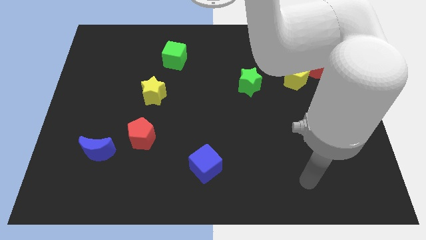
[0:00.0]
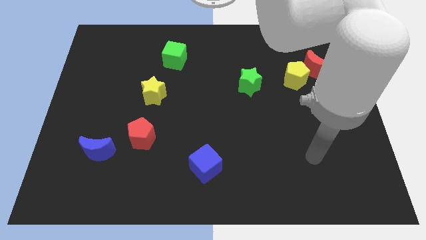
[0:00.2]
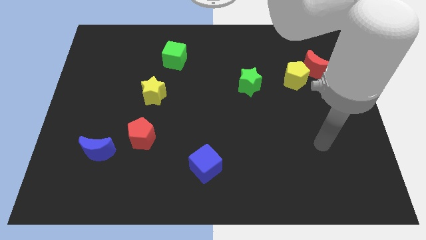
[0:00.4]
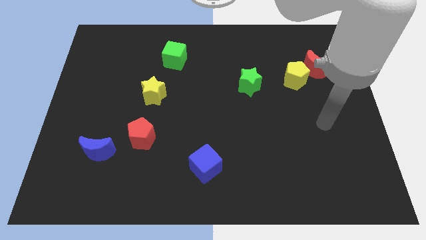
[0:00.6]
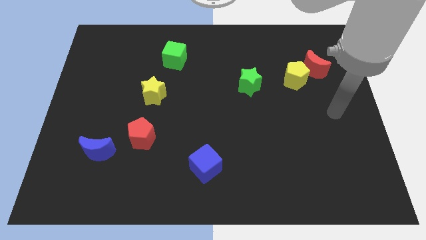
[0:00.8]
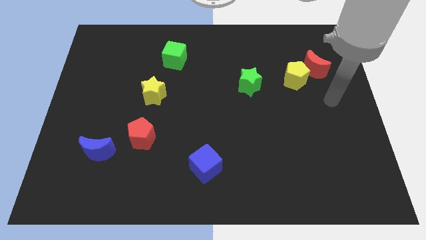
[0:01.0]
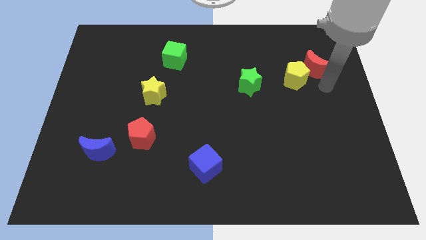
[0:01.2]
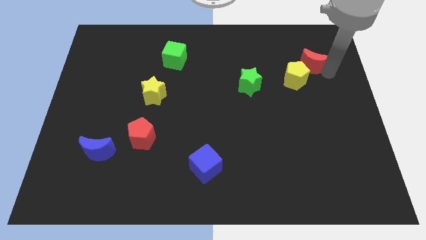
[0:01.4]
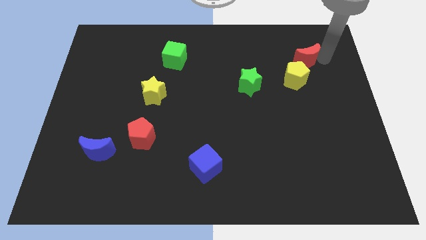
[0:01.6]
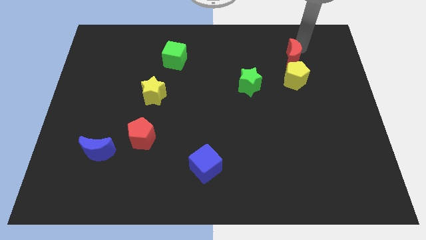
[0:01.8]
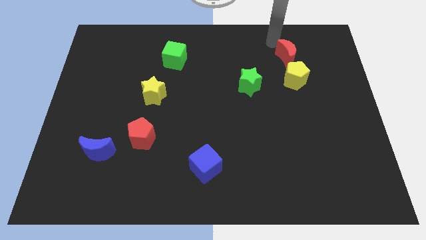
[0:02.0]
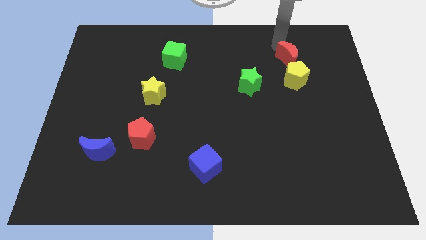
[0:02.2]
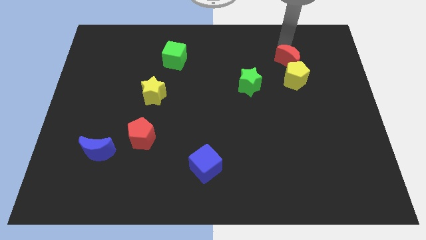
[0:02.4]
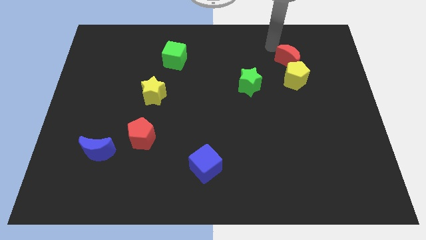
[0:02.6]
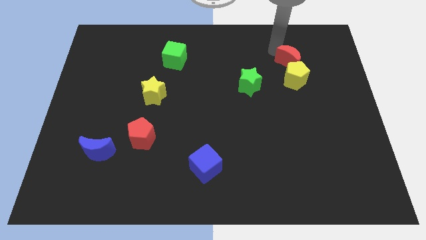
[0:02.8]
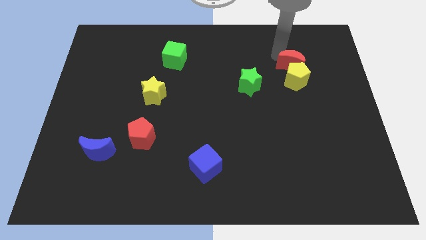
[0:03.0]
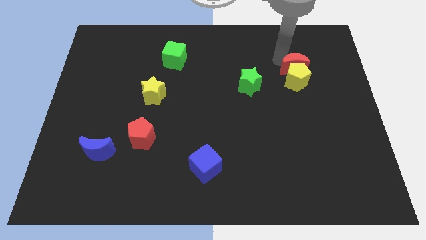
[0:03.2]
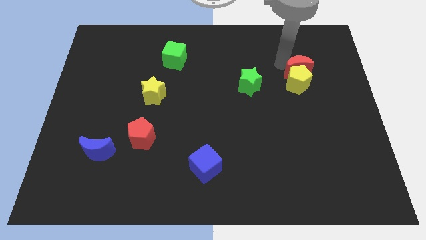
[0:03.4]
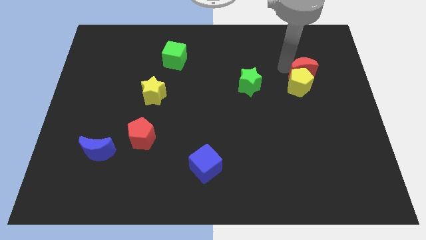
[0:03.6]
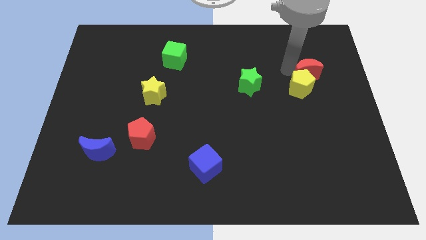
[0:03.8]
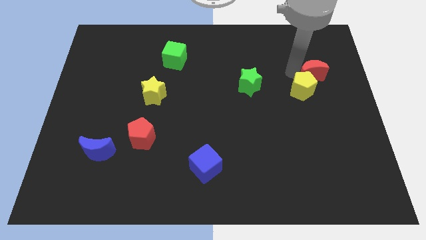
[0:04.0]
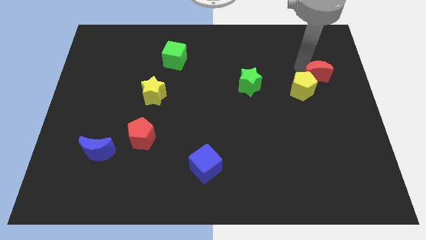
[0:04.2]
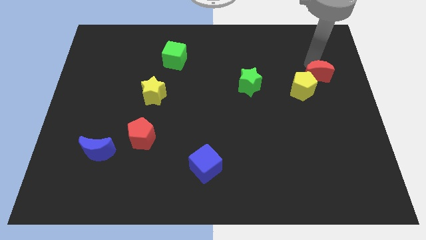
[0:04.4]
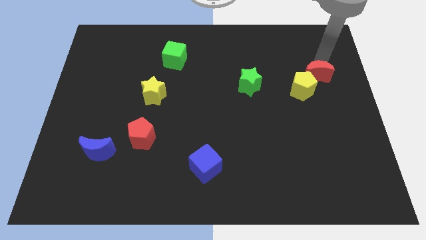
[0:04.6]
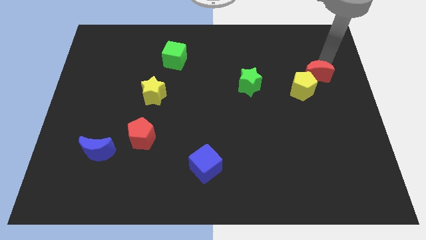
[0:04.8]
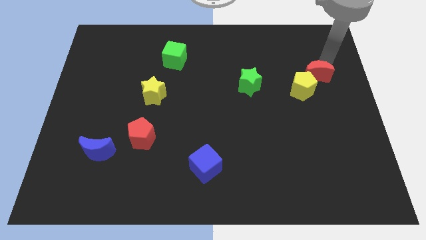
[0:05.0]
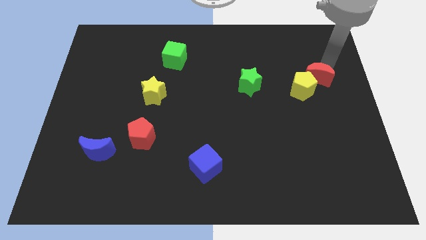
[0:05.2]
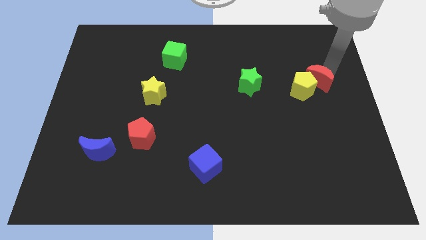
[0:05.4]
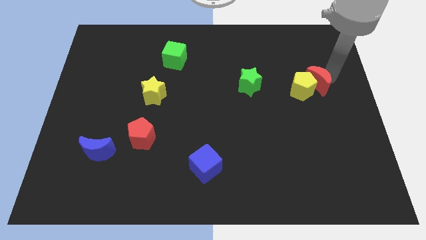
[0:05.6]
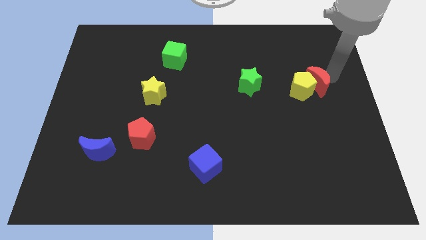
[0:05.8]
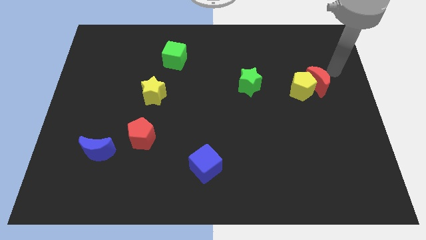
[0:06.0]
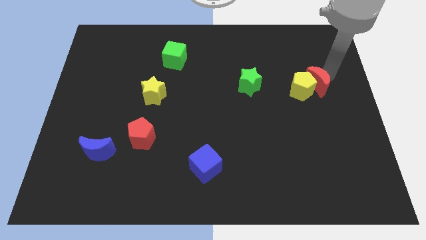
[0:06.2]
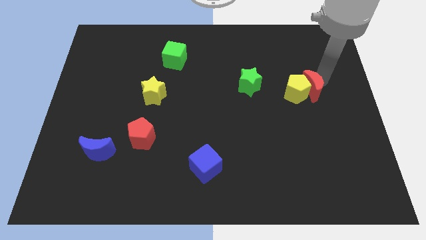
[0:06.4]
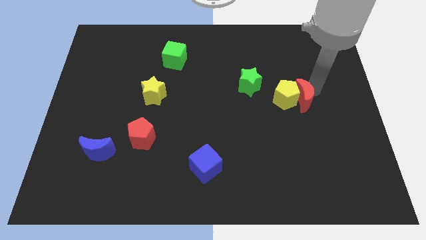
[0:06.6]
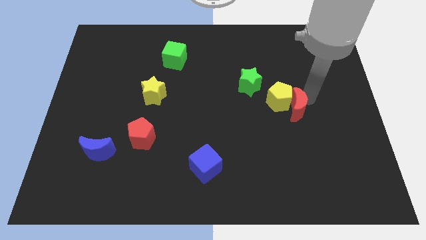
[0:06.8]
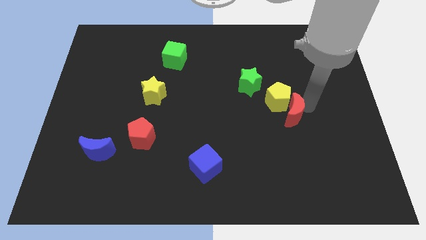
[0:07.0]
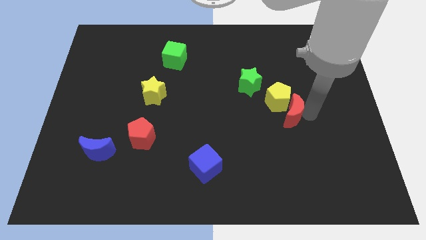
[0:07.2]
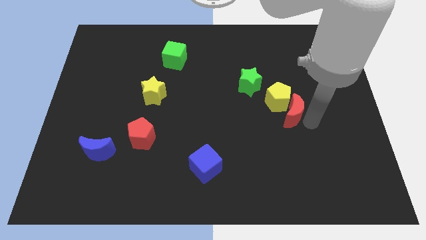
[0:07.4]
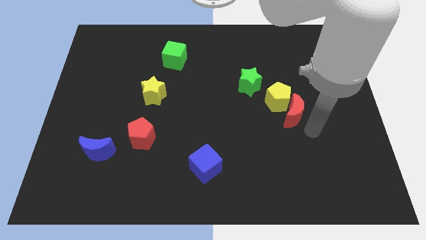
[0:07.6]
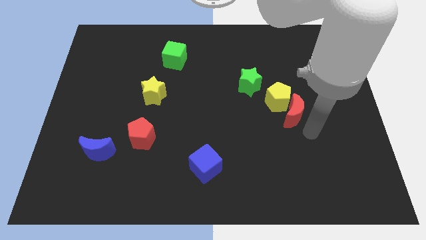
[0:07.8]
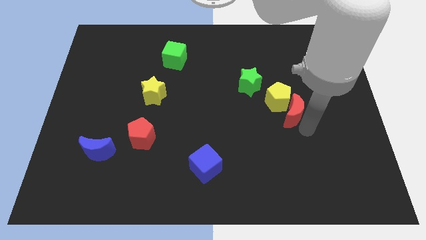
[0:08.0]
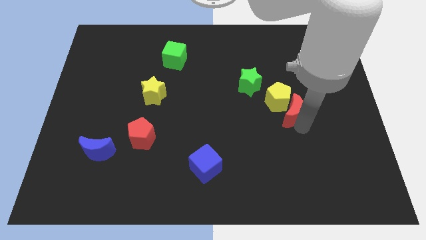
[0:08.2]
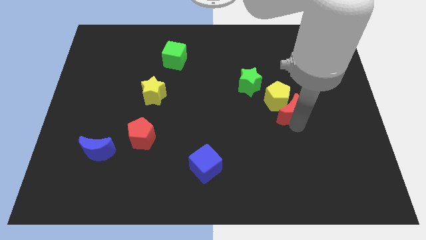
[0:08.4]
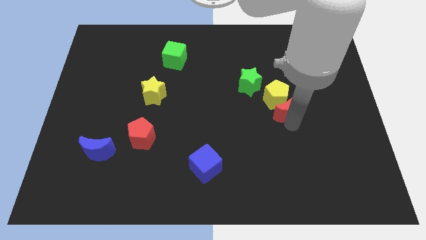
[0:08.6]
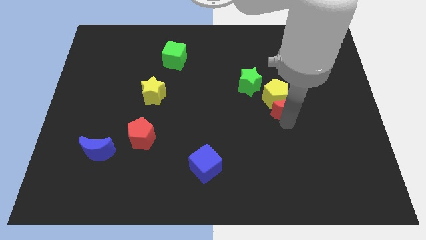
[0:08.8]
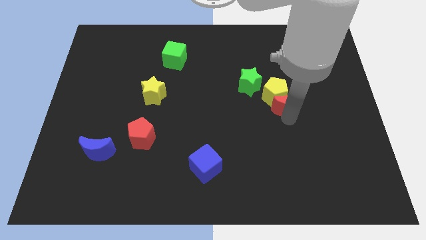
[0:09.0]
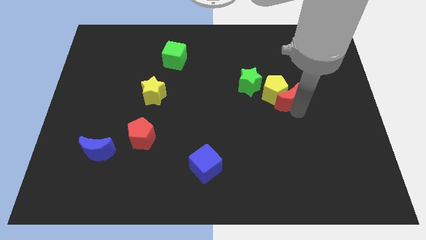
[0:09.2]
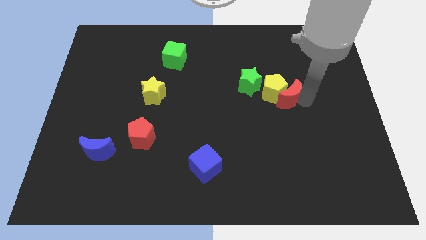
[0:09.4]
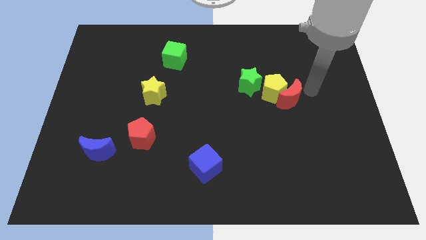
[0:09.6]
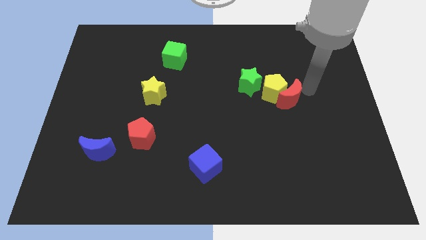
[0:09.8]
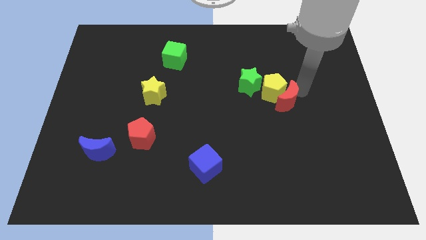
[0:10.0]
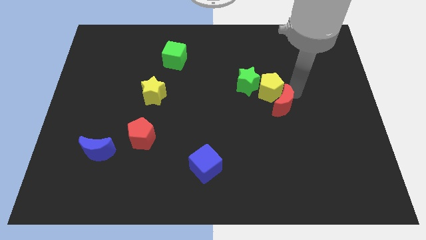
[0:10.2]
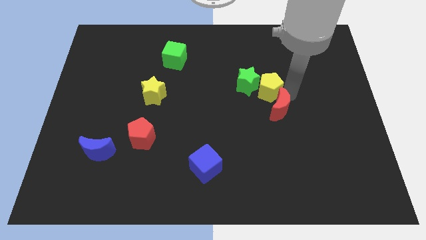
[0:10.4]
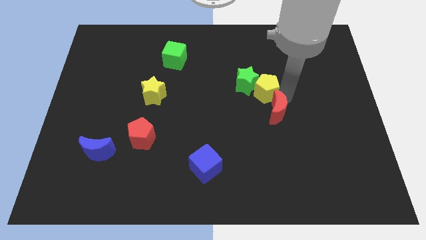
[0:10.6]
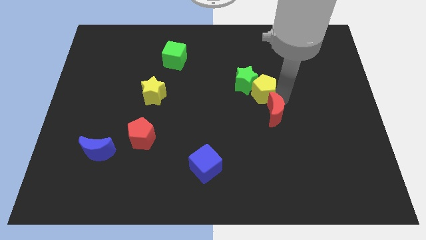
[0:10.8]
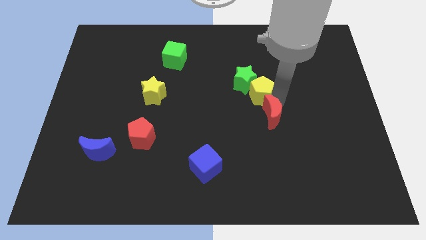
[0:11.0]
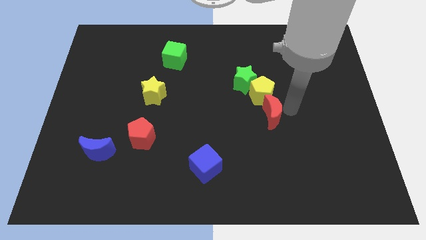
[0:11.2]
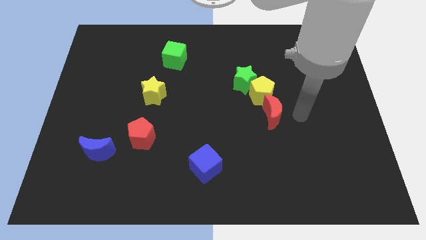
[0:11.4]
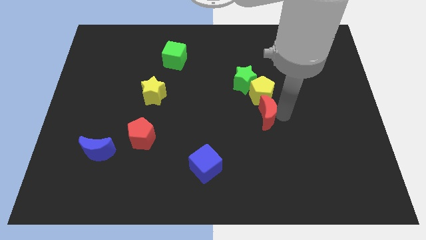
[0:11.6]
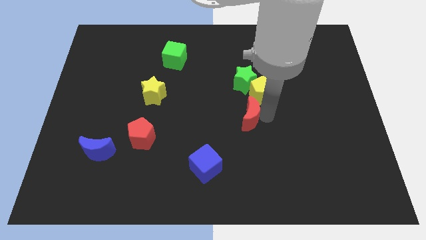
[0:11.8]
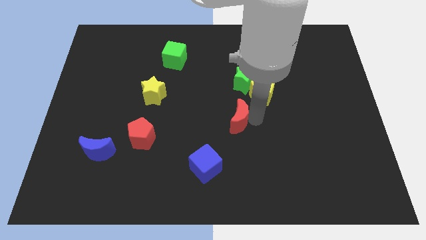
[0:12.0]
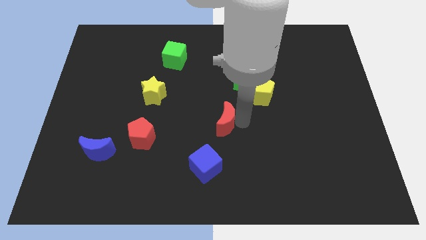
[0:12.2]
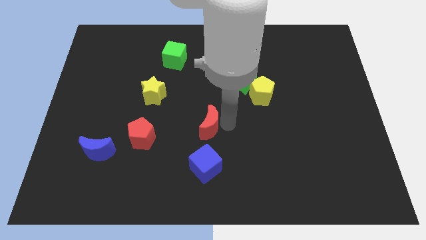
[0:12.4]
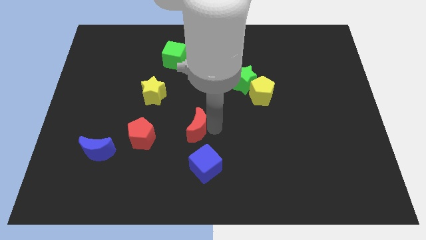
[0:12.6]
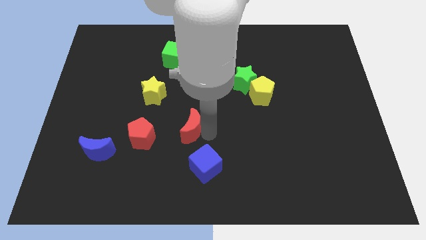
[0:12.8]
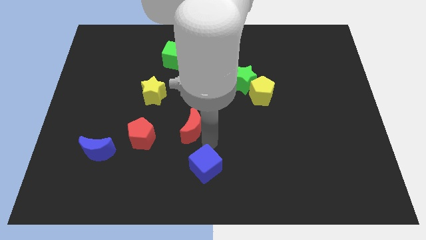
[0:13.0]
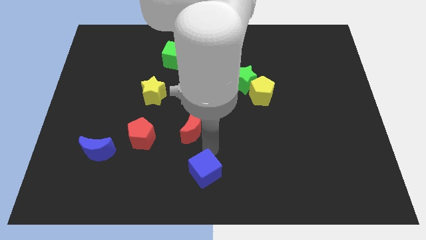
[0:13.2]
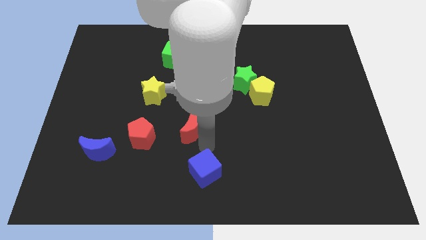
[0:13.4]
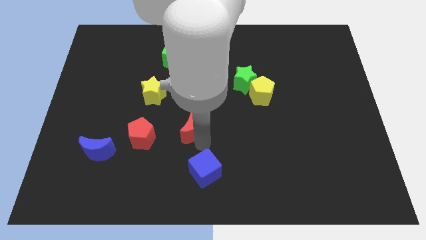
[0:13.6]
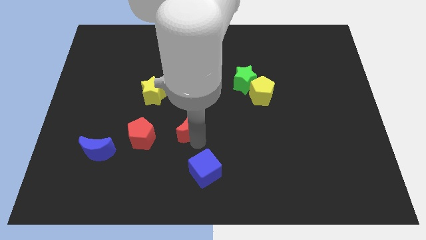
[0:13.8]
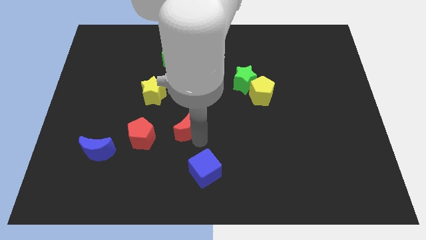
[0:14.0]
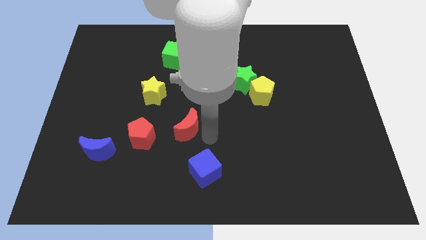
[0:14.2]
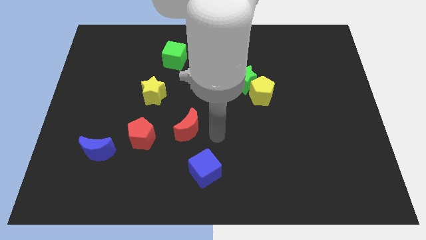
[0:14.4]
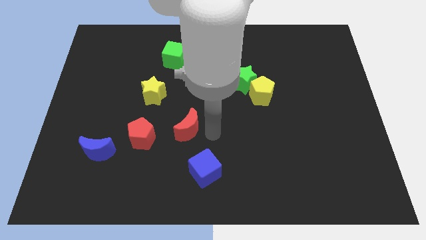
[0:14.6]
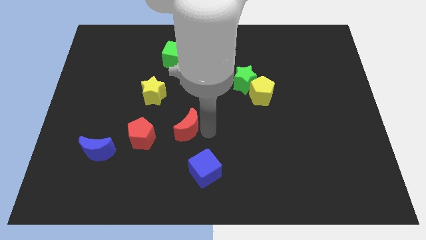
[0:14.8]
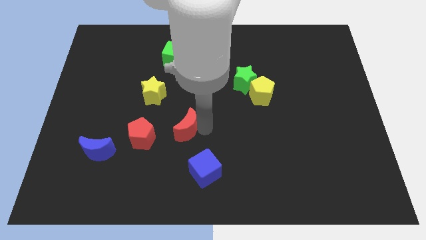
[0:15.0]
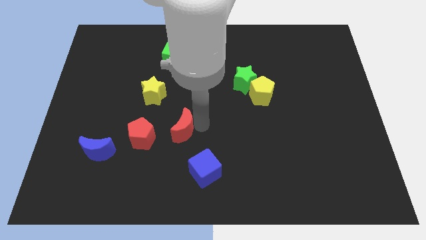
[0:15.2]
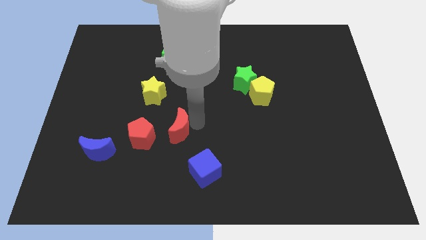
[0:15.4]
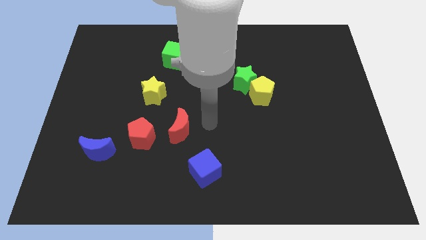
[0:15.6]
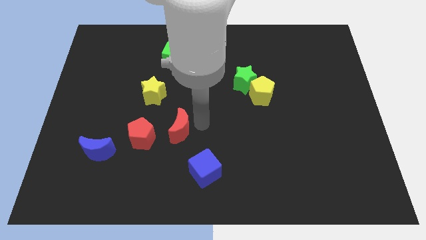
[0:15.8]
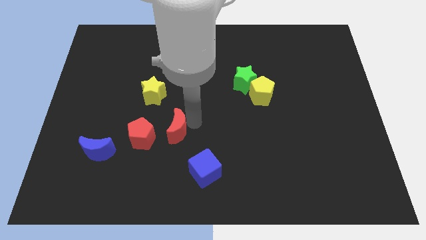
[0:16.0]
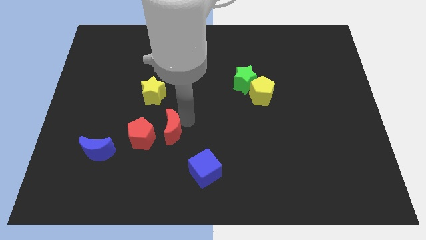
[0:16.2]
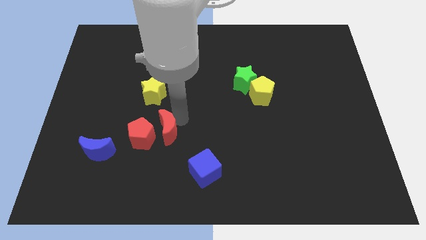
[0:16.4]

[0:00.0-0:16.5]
slide the red moon to the red pentagon
